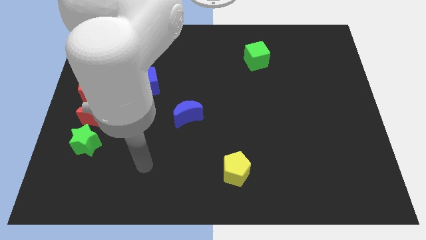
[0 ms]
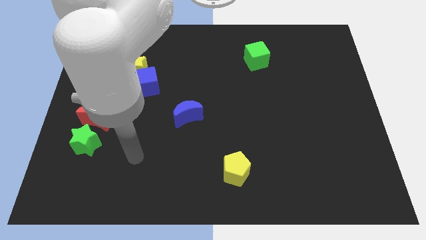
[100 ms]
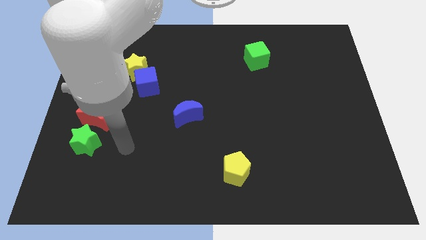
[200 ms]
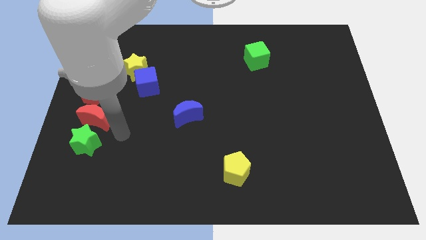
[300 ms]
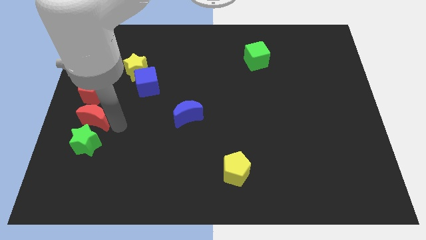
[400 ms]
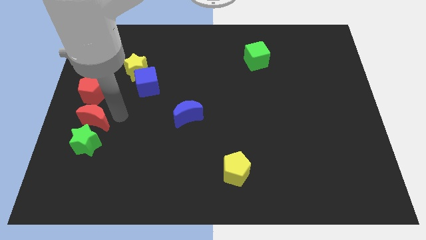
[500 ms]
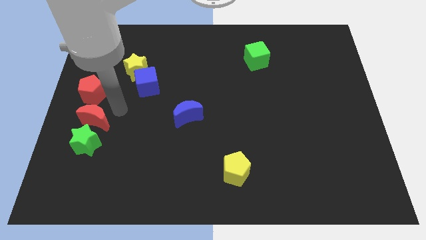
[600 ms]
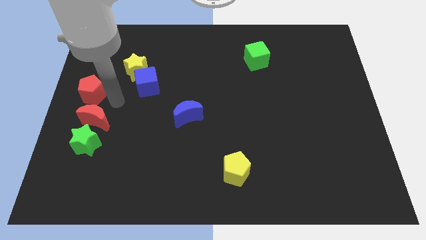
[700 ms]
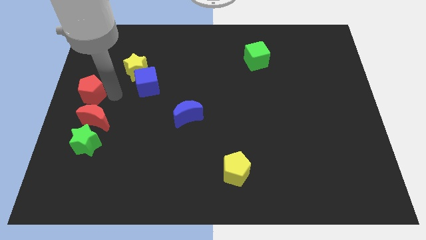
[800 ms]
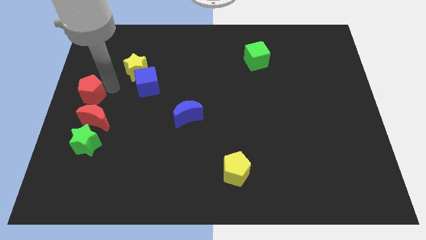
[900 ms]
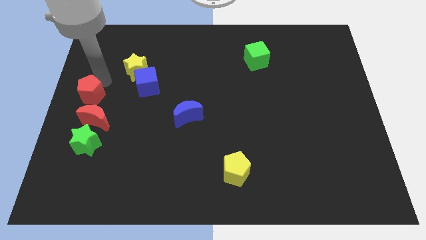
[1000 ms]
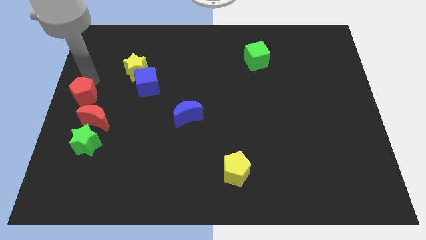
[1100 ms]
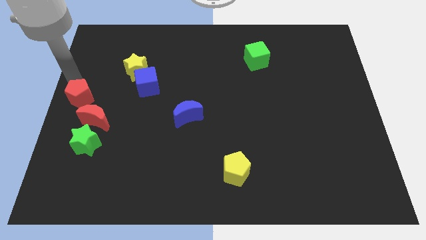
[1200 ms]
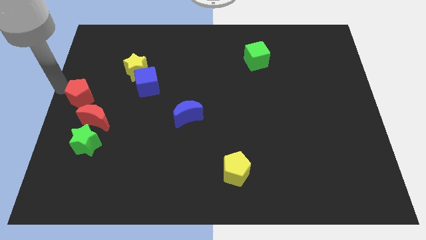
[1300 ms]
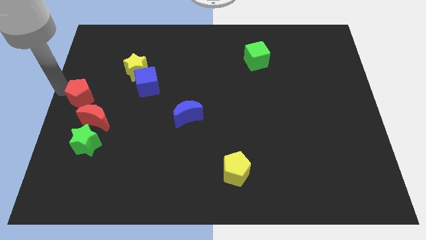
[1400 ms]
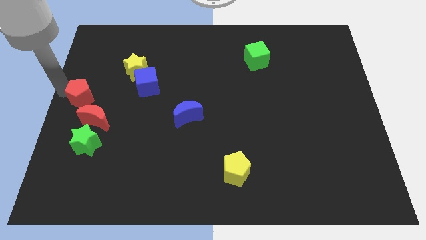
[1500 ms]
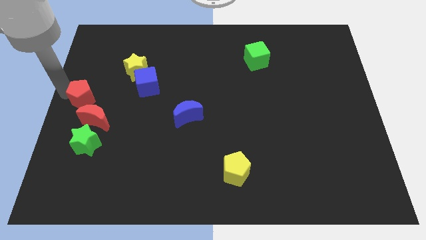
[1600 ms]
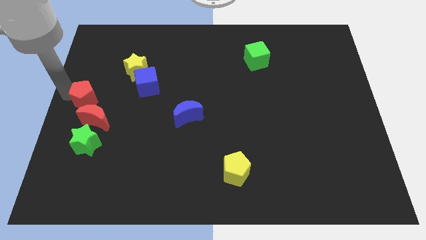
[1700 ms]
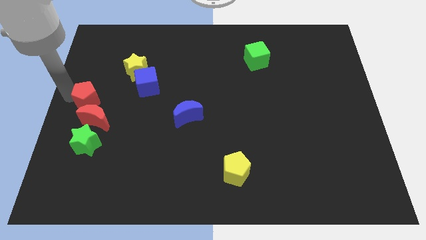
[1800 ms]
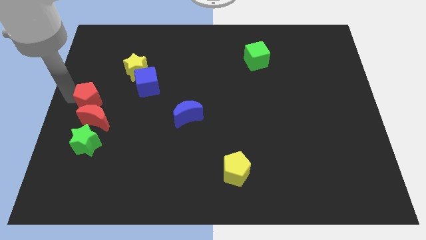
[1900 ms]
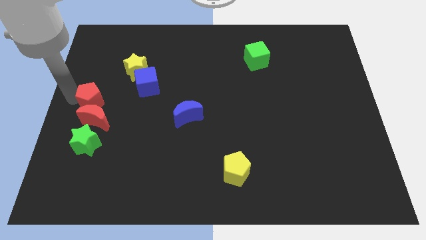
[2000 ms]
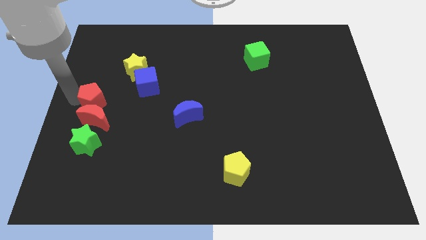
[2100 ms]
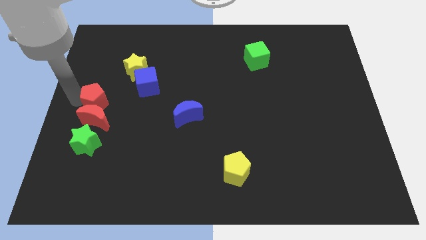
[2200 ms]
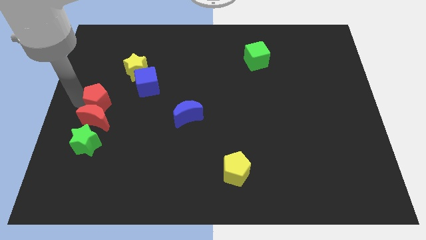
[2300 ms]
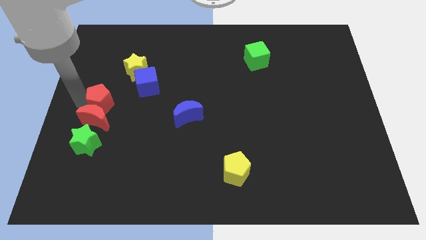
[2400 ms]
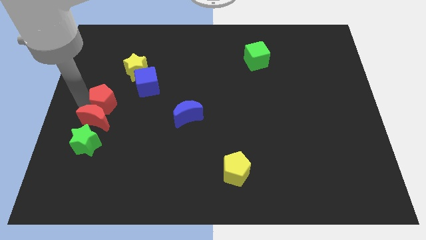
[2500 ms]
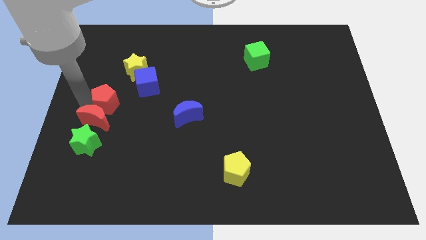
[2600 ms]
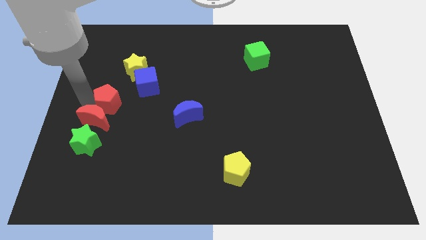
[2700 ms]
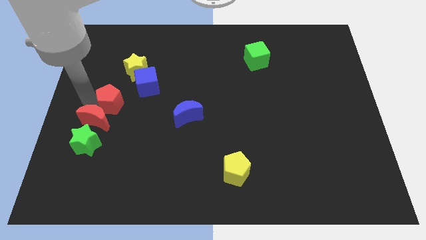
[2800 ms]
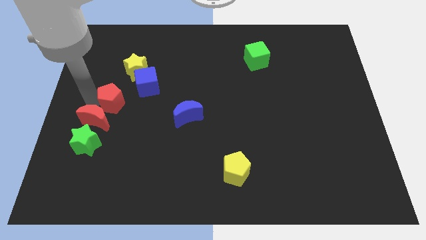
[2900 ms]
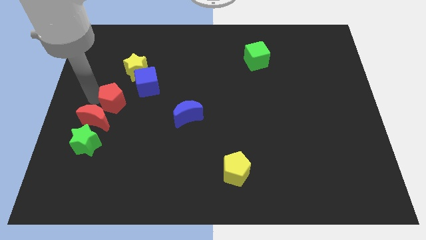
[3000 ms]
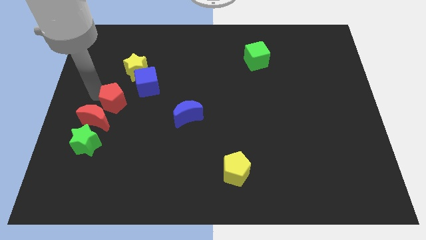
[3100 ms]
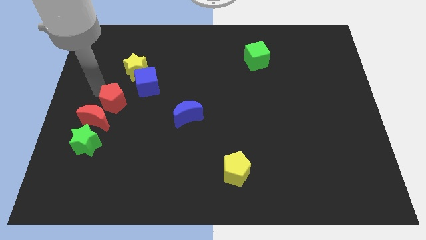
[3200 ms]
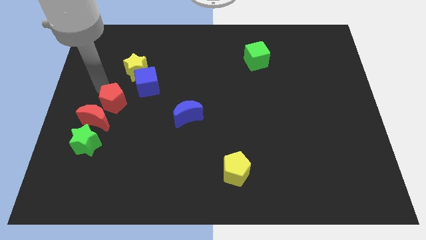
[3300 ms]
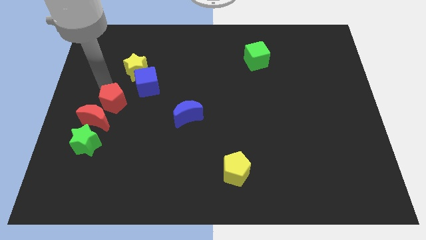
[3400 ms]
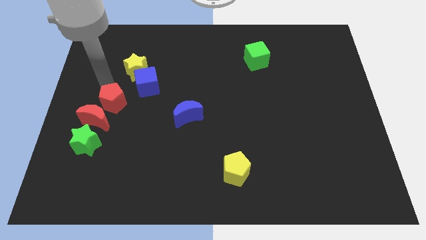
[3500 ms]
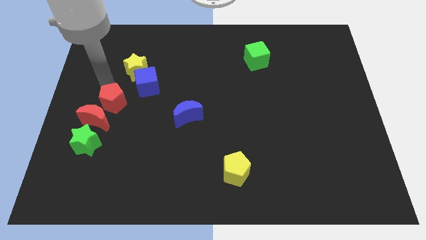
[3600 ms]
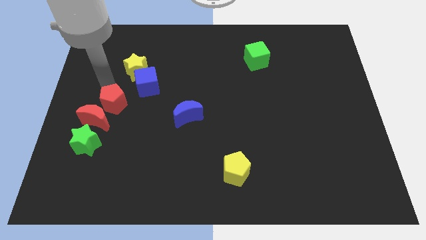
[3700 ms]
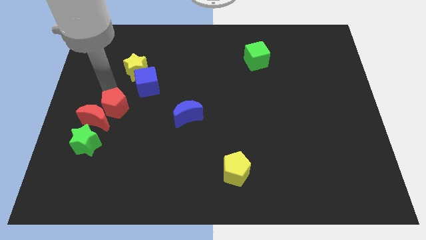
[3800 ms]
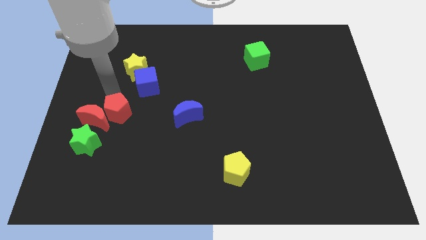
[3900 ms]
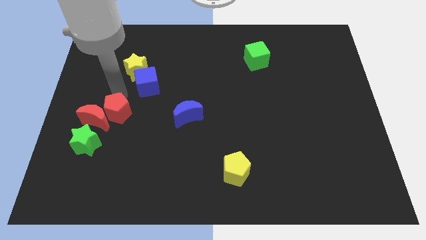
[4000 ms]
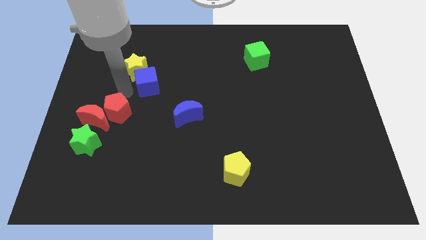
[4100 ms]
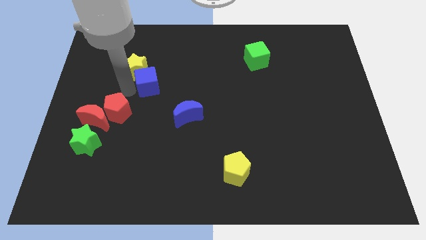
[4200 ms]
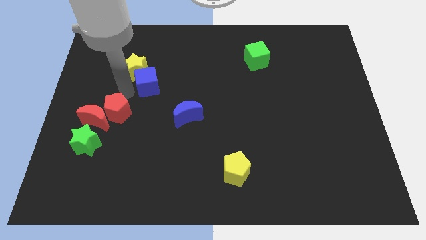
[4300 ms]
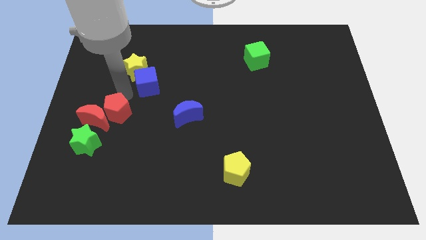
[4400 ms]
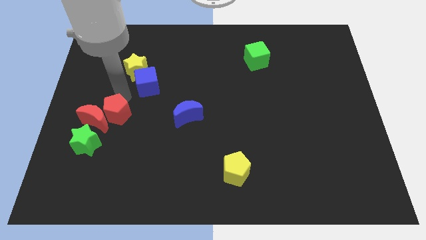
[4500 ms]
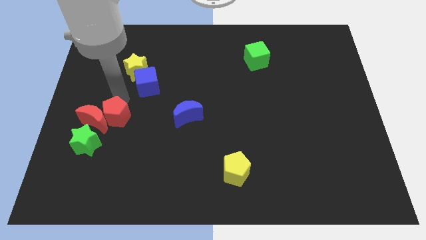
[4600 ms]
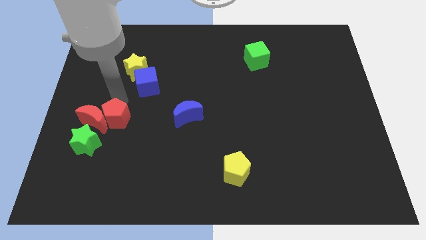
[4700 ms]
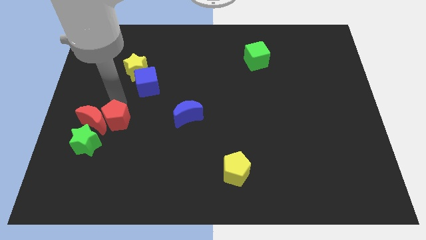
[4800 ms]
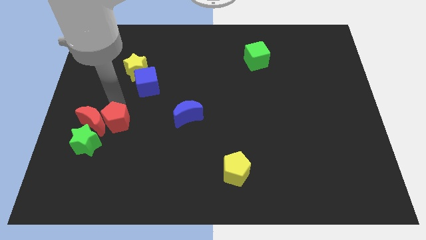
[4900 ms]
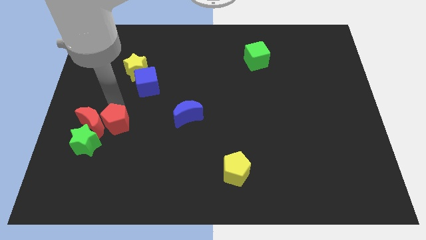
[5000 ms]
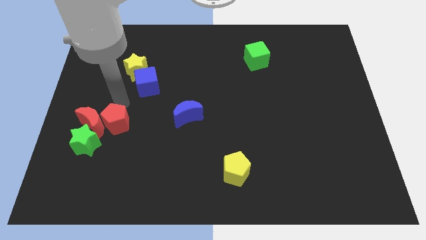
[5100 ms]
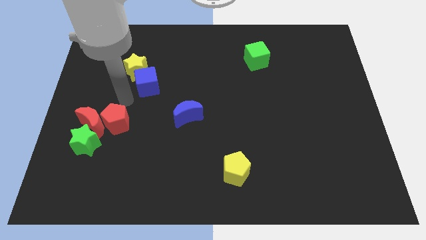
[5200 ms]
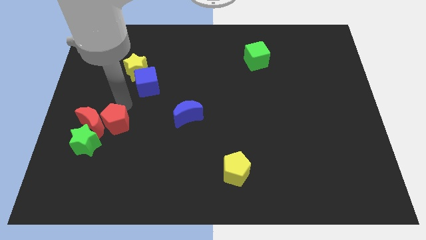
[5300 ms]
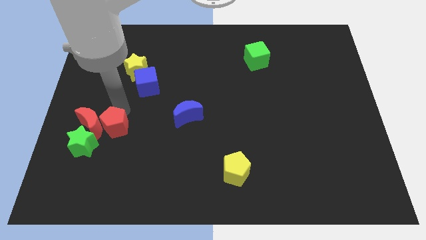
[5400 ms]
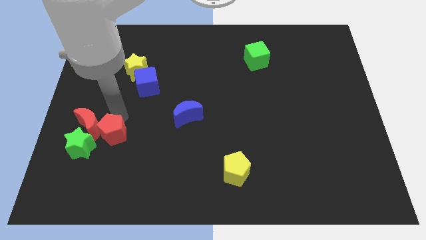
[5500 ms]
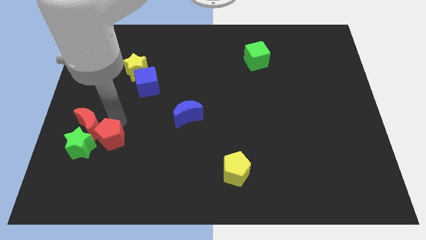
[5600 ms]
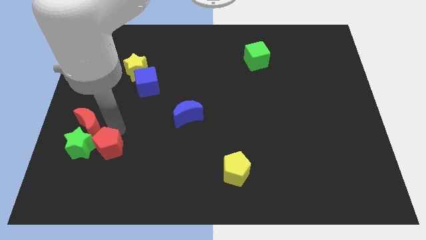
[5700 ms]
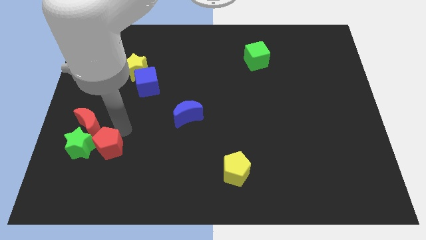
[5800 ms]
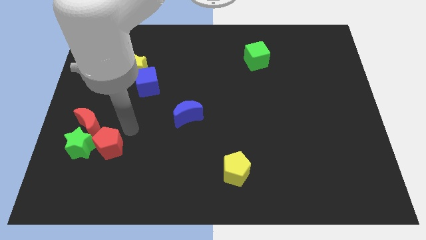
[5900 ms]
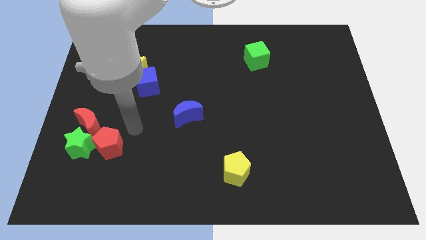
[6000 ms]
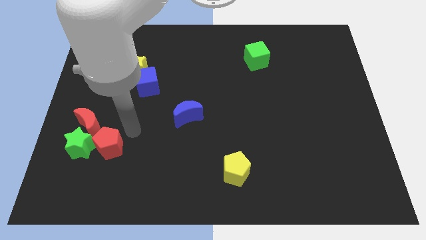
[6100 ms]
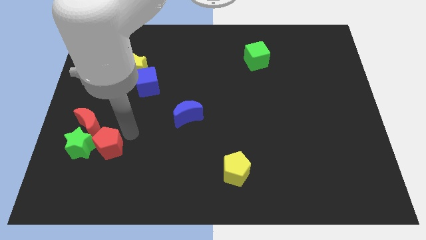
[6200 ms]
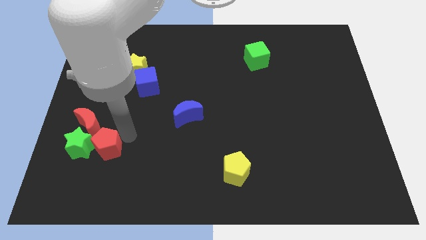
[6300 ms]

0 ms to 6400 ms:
push the red pentagon below the red moon

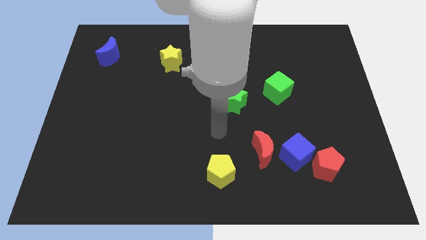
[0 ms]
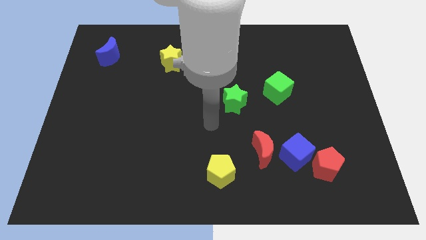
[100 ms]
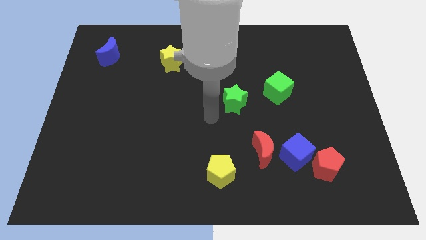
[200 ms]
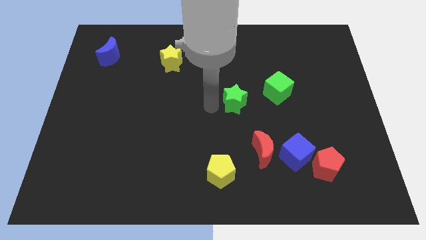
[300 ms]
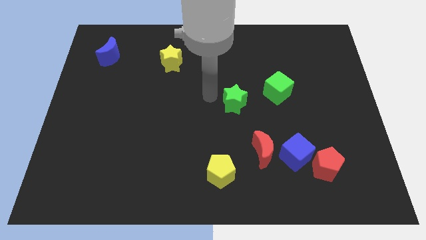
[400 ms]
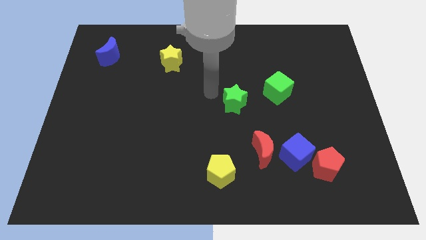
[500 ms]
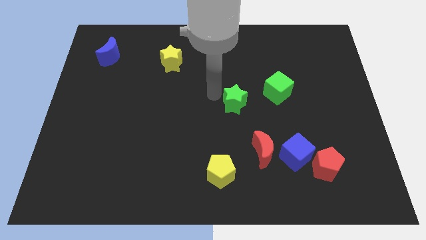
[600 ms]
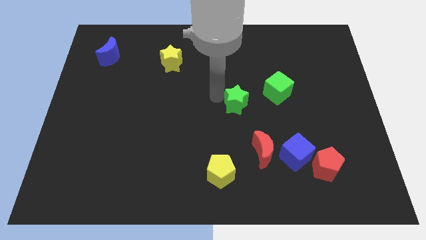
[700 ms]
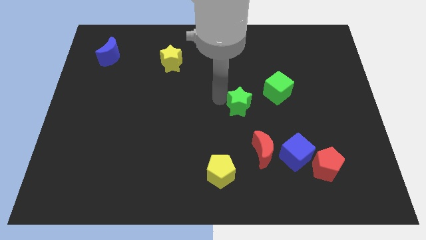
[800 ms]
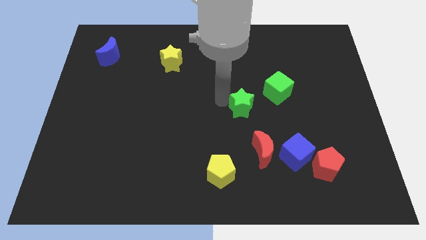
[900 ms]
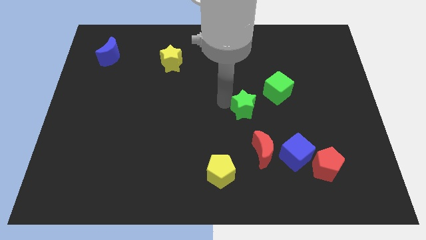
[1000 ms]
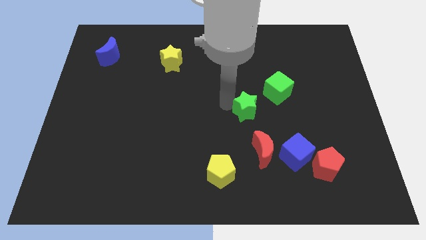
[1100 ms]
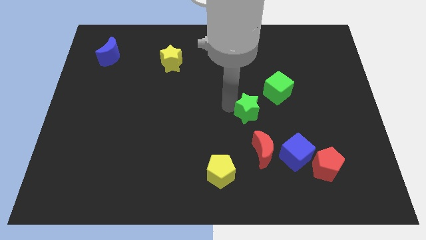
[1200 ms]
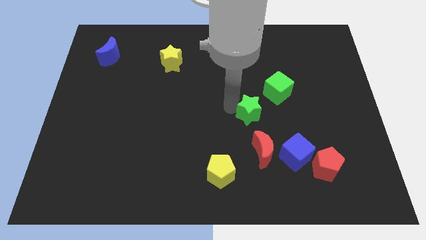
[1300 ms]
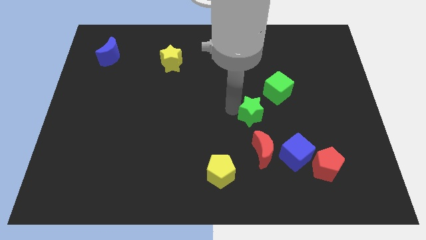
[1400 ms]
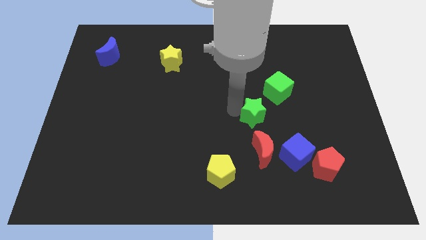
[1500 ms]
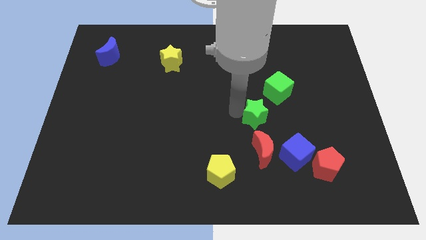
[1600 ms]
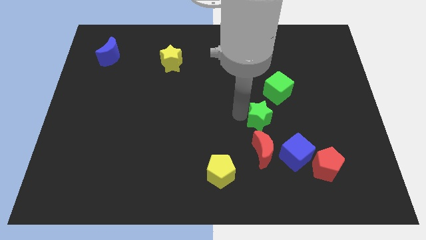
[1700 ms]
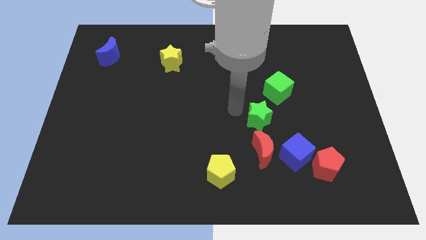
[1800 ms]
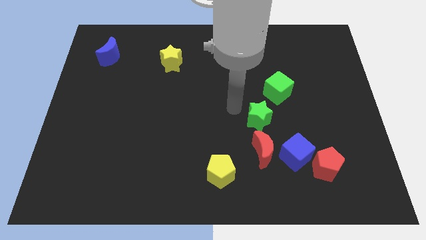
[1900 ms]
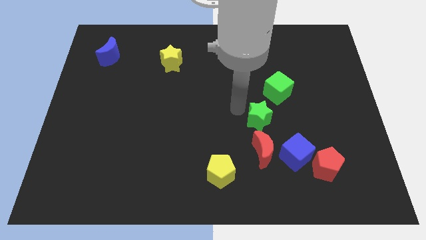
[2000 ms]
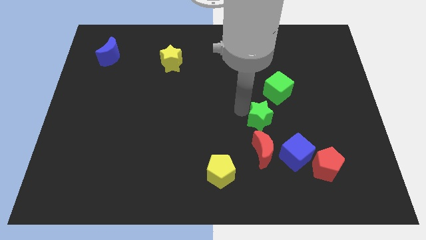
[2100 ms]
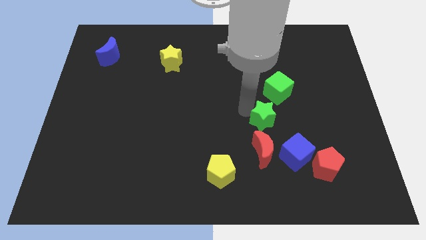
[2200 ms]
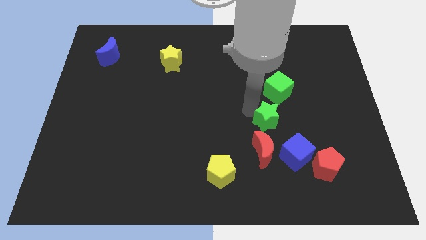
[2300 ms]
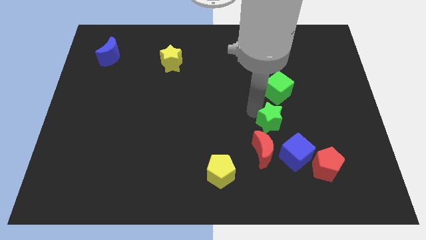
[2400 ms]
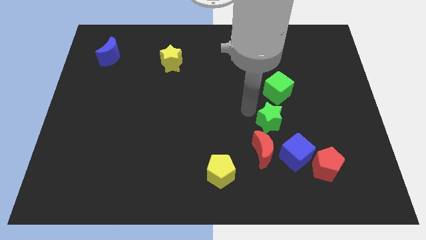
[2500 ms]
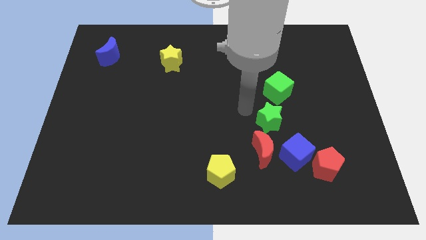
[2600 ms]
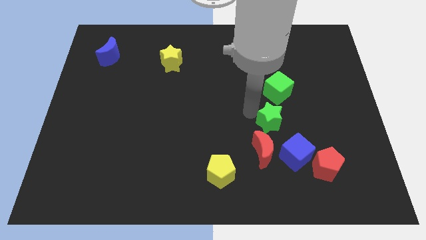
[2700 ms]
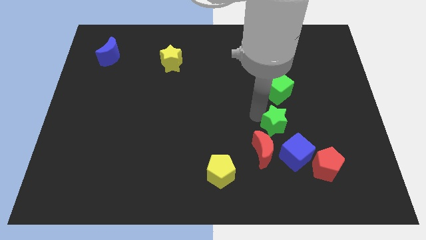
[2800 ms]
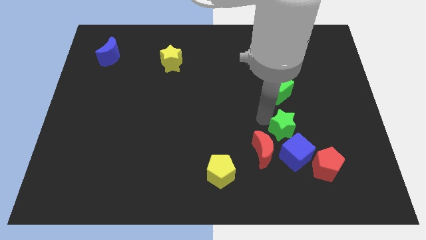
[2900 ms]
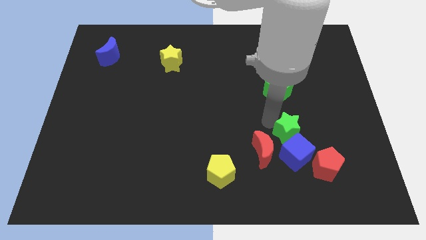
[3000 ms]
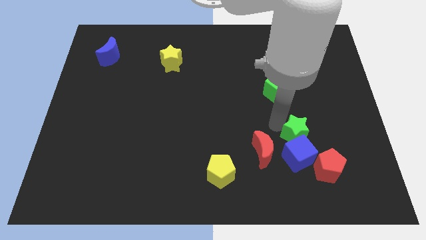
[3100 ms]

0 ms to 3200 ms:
move the green star to the right side of the red moon
